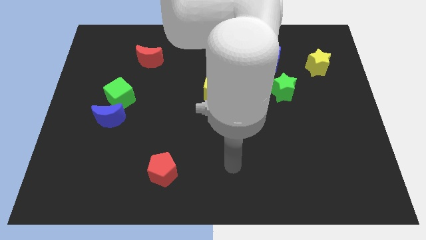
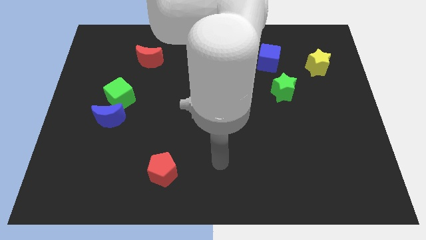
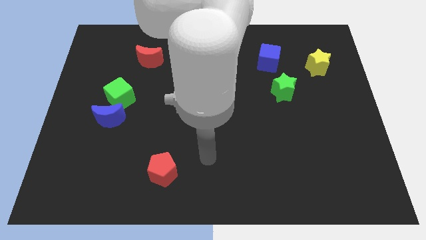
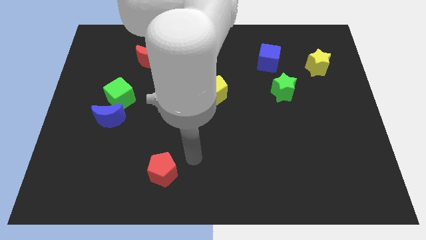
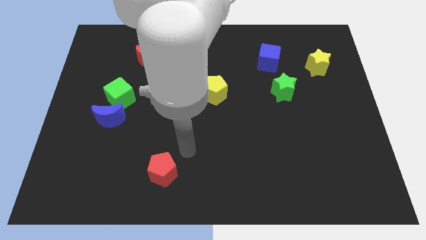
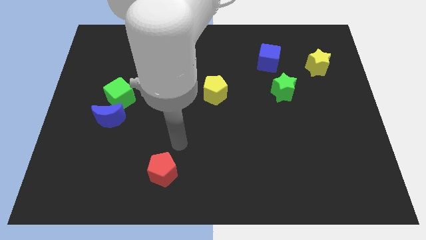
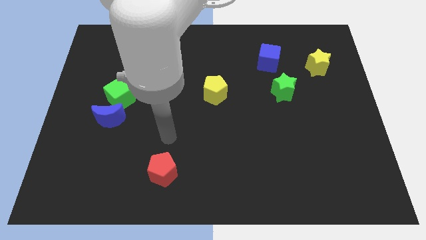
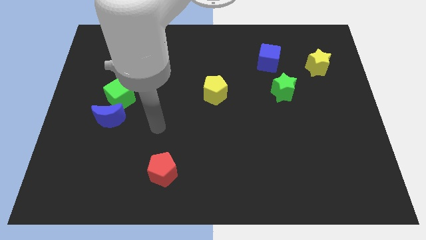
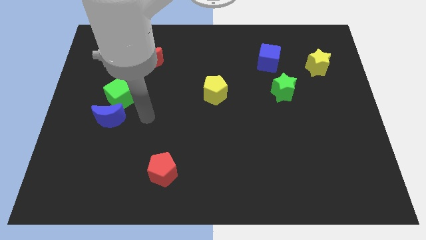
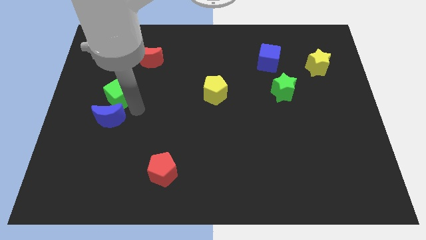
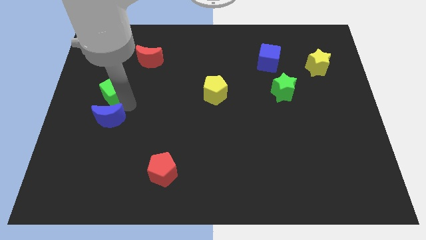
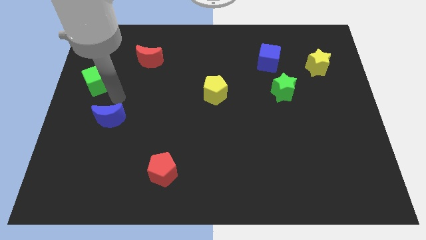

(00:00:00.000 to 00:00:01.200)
pull the blue moon apart from the green cube

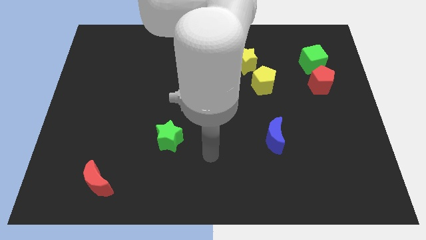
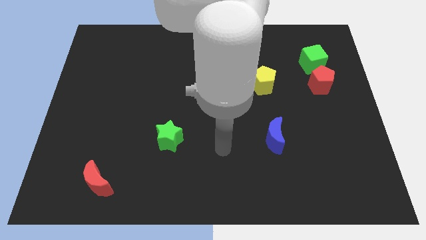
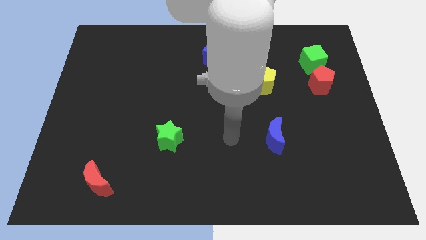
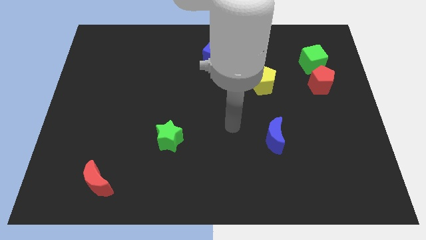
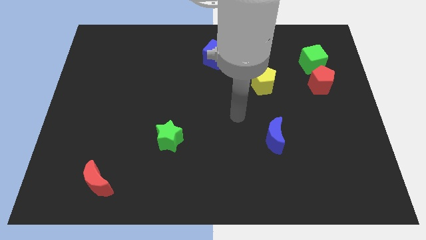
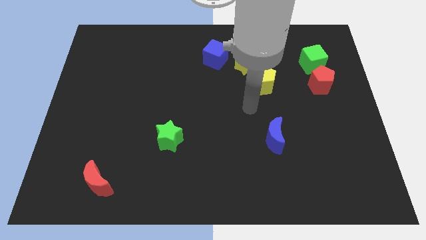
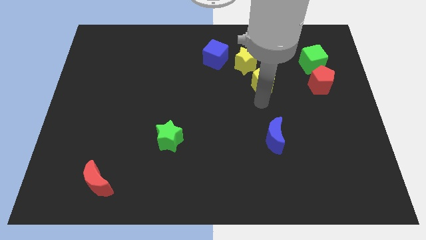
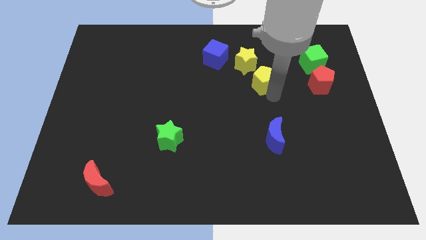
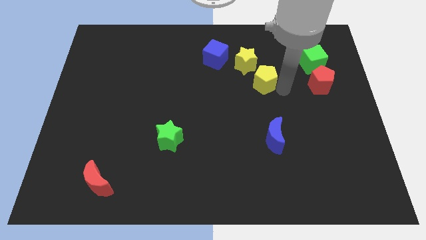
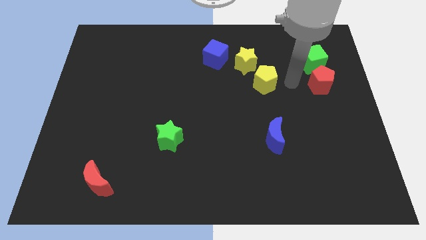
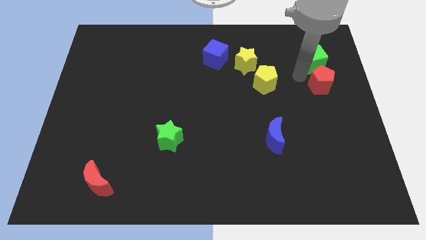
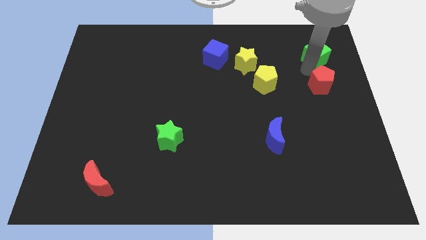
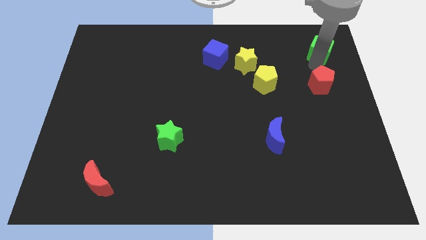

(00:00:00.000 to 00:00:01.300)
move the red pentagon away from the green cube

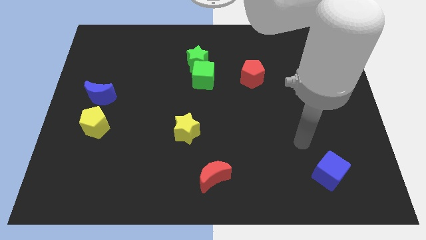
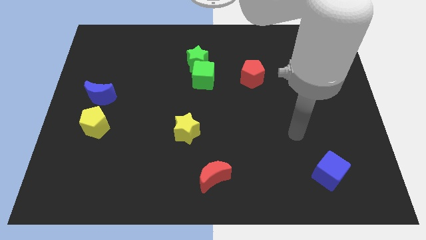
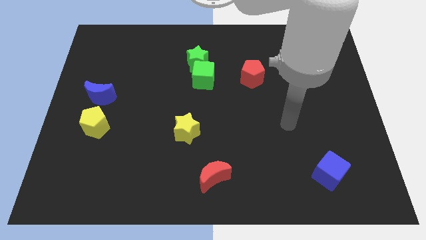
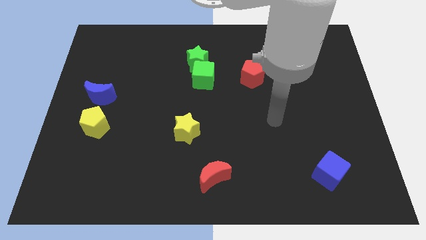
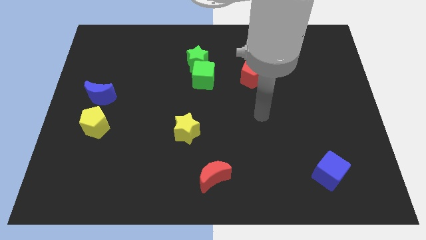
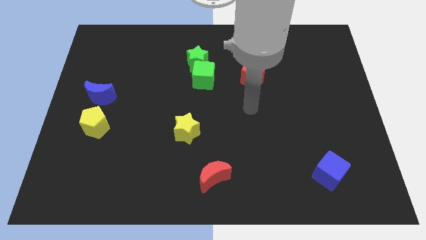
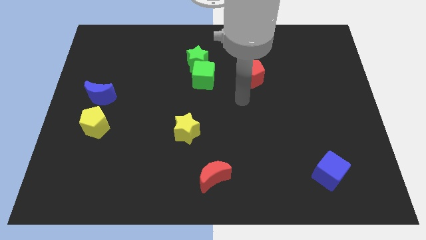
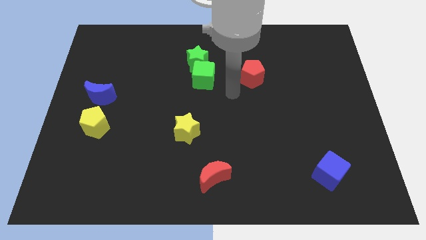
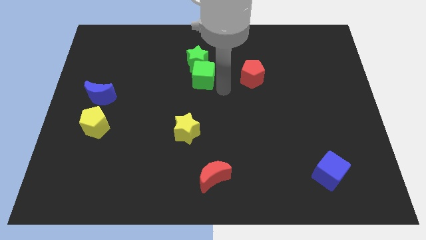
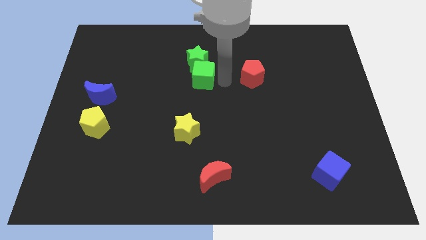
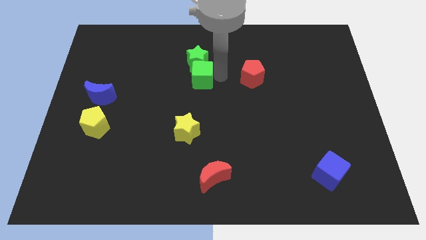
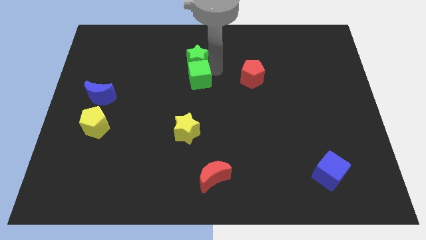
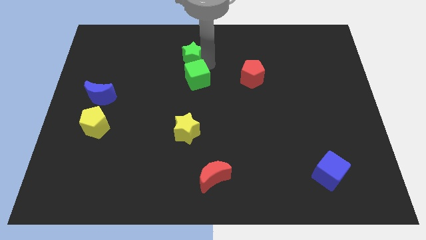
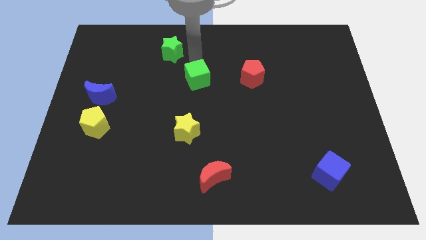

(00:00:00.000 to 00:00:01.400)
move the green cube away from the green star

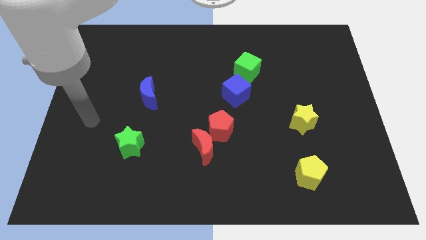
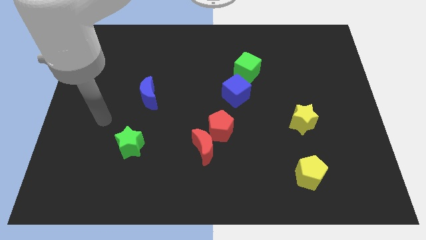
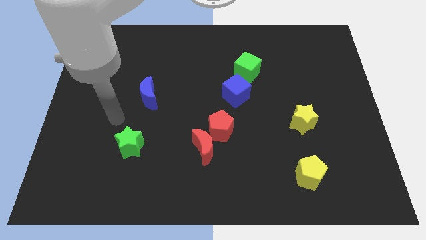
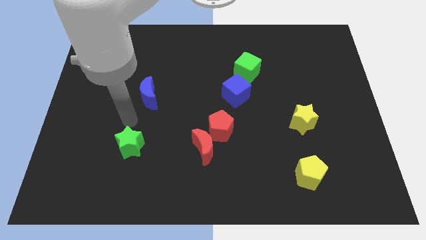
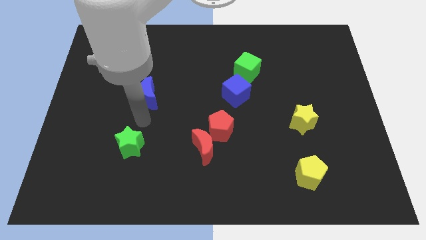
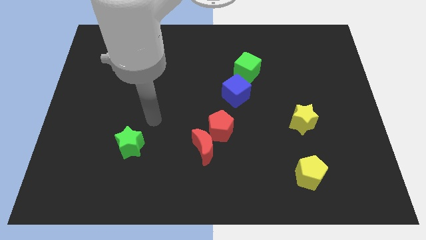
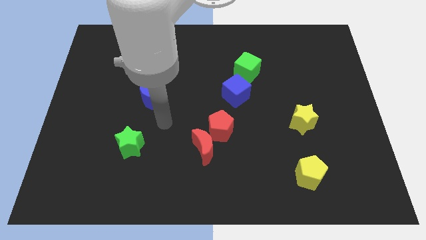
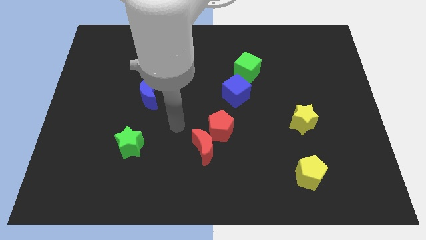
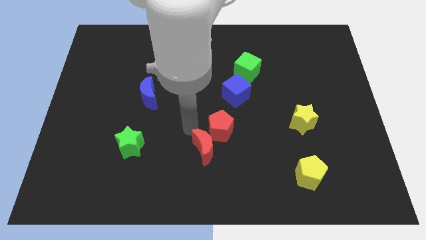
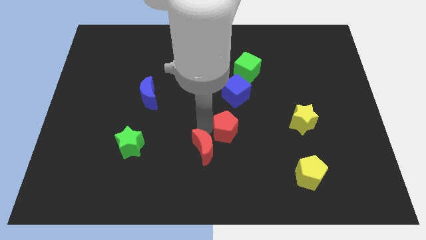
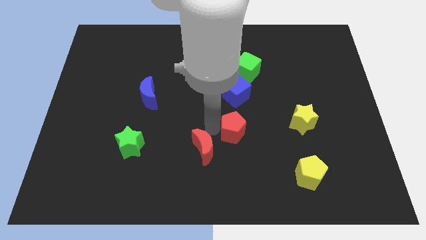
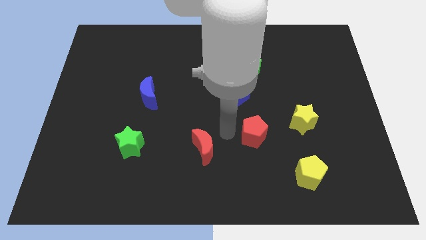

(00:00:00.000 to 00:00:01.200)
separate the red moon from the red pentagon

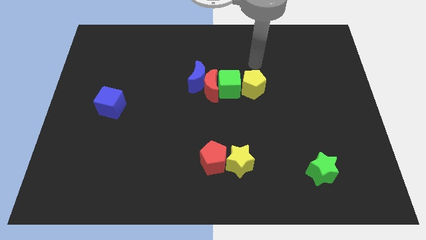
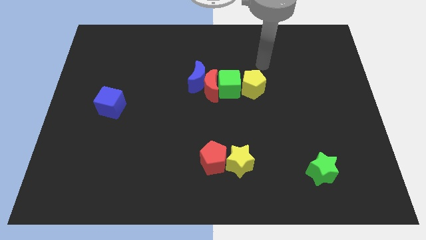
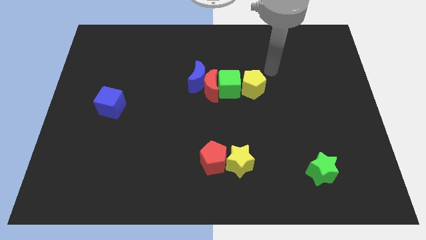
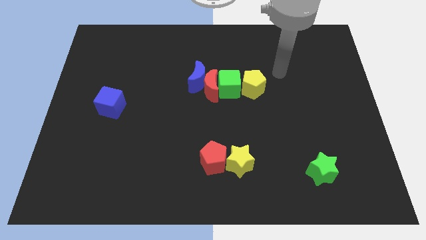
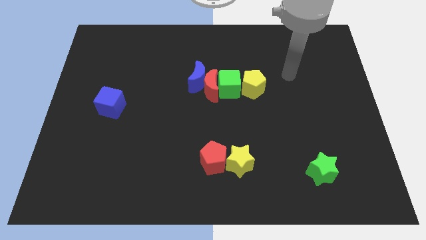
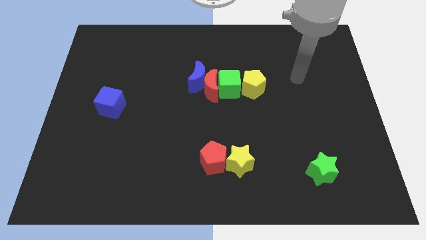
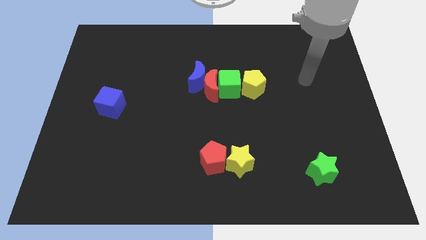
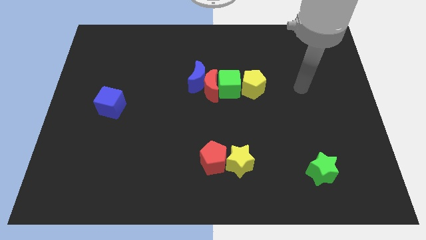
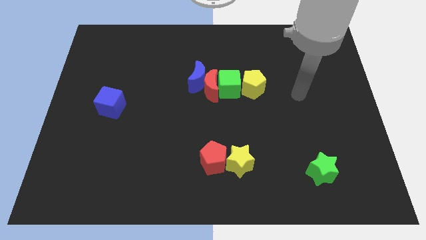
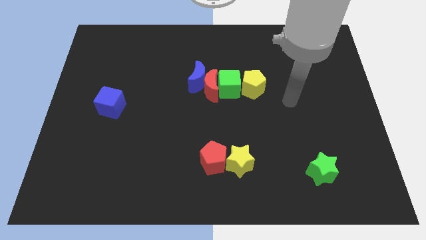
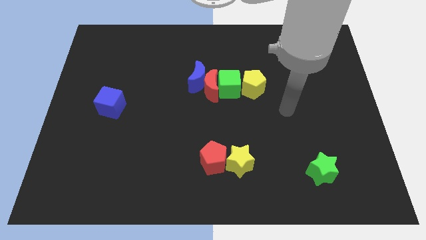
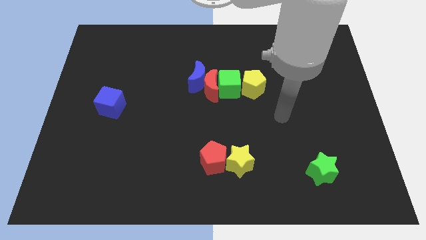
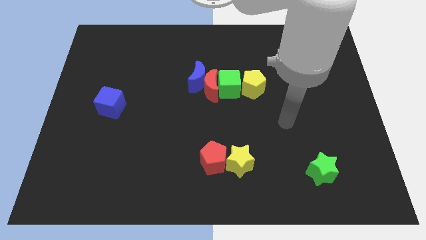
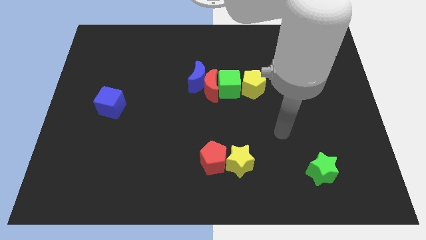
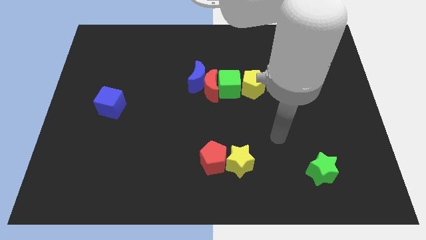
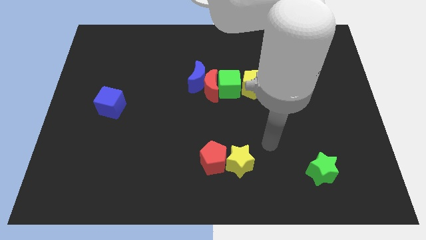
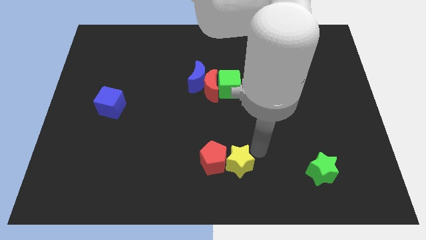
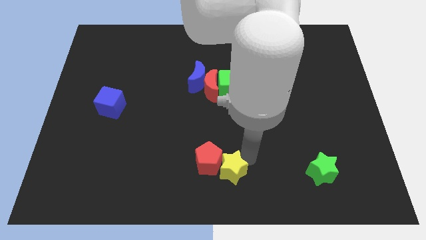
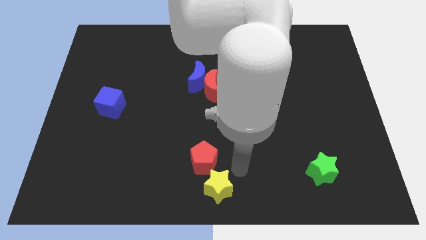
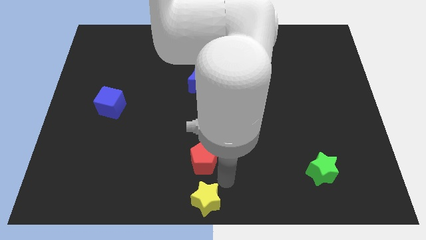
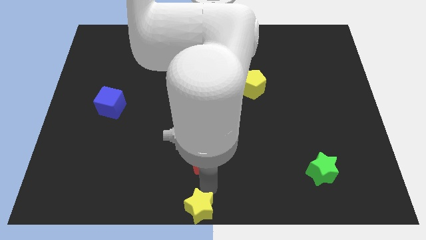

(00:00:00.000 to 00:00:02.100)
separate the red pentagon from the yellow star

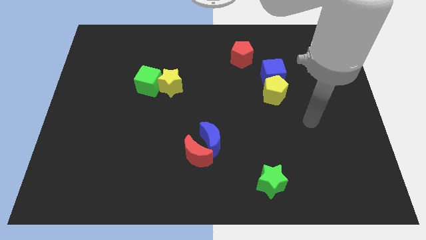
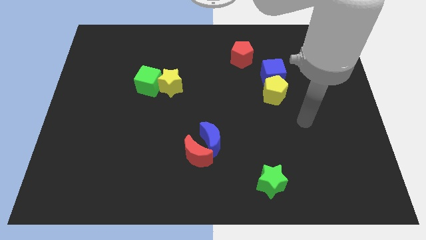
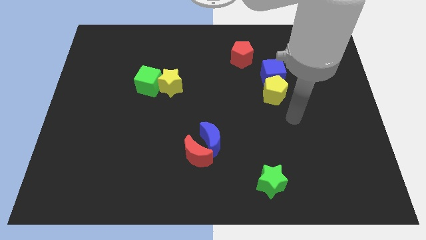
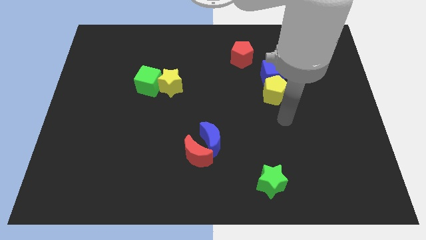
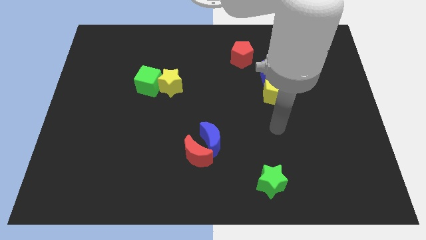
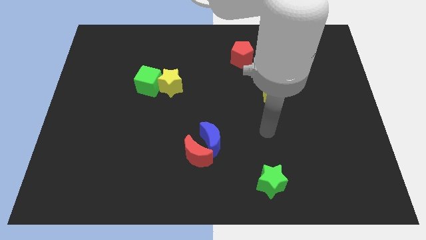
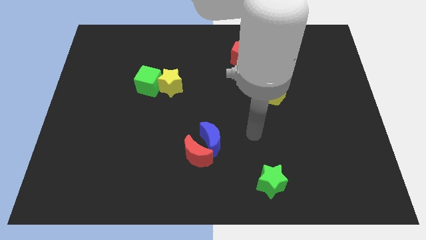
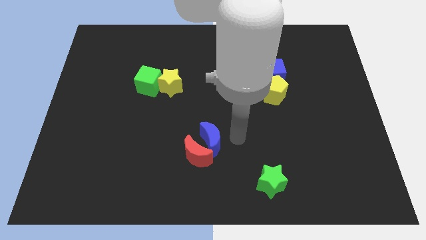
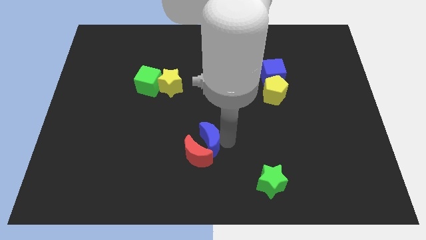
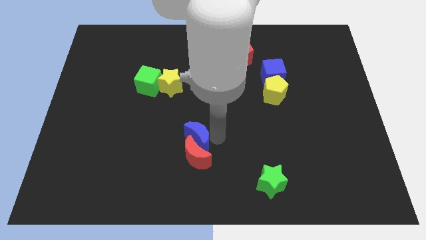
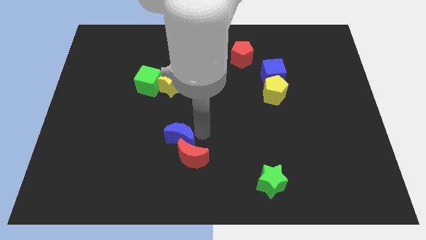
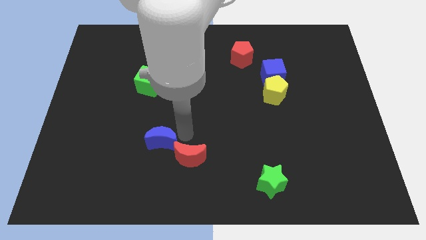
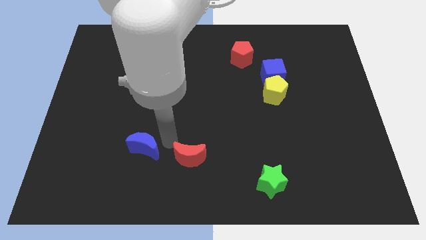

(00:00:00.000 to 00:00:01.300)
separate the red moon from the blue moon

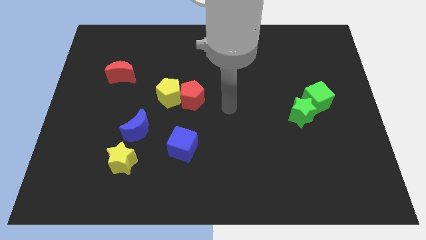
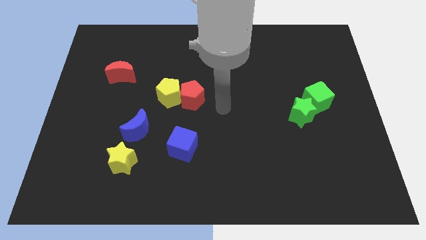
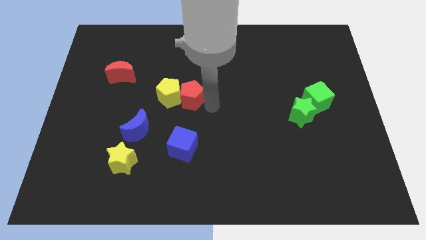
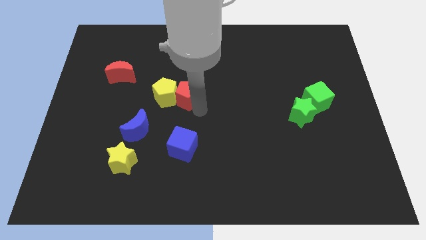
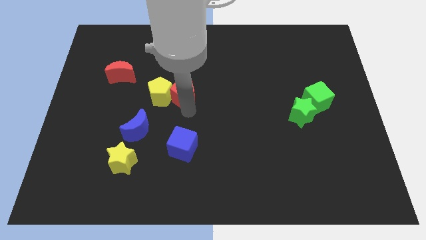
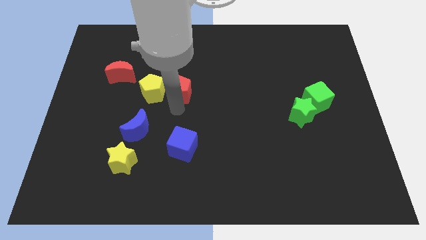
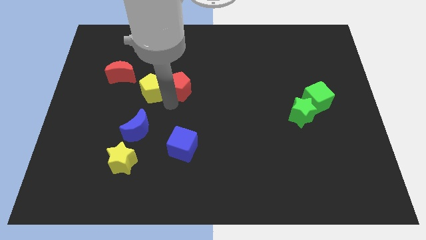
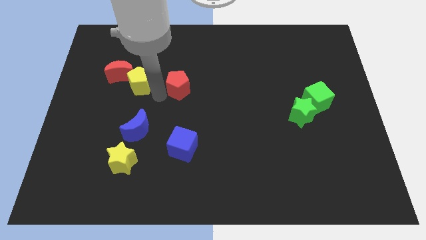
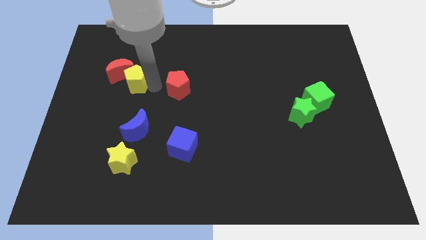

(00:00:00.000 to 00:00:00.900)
move the red pentagon away from the yellow pentagon
